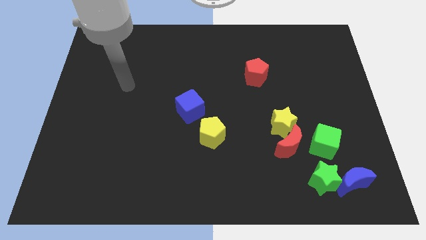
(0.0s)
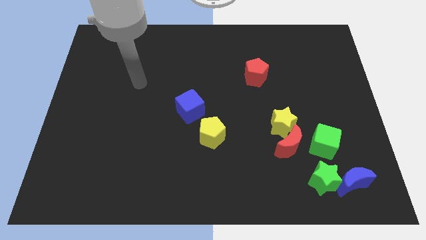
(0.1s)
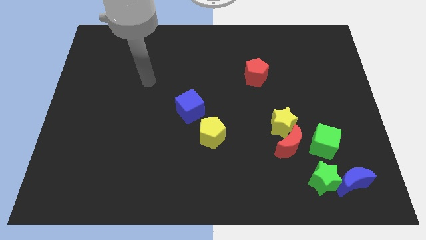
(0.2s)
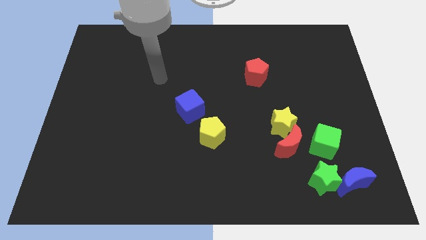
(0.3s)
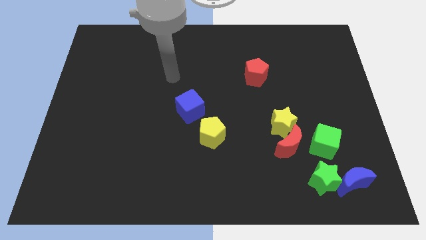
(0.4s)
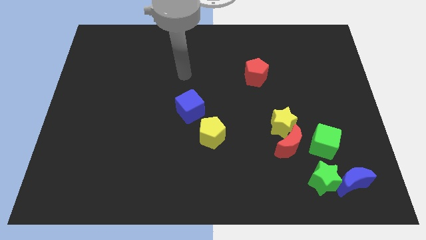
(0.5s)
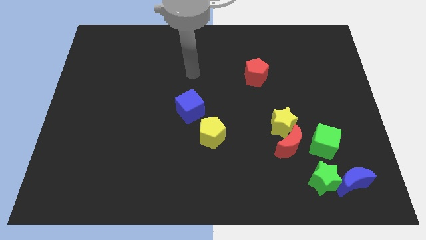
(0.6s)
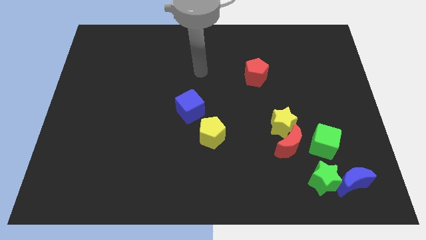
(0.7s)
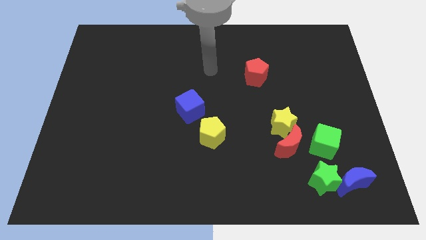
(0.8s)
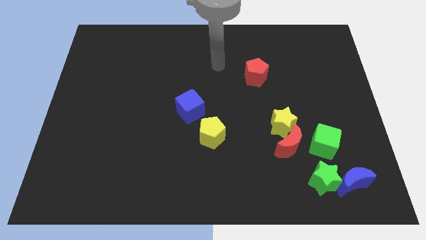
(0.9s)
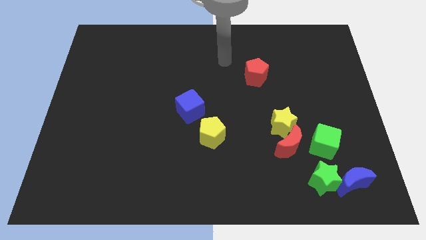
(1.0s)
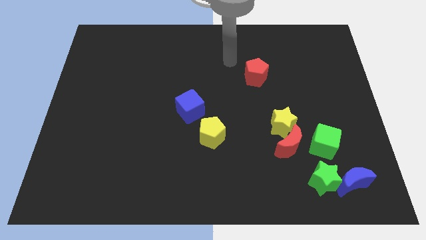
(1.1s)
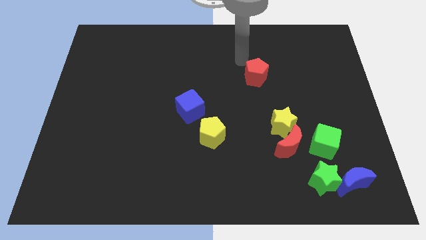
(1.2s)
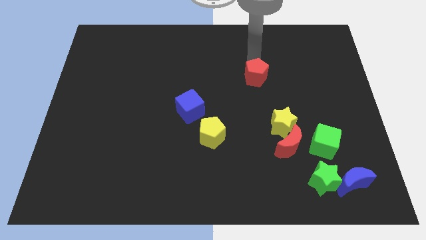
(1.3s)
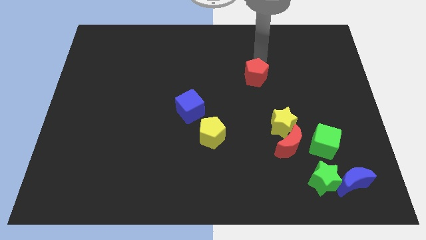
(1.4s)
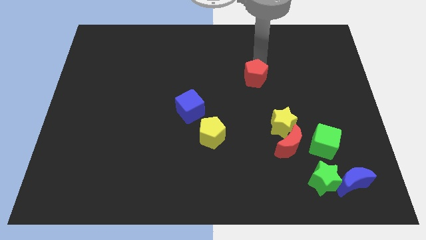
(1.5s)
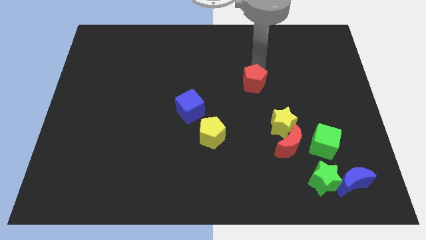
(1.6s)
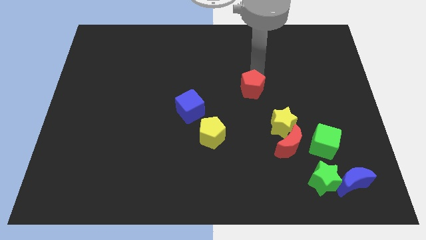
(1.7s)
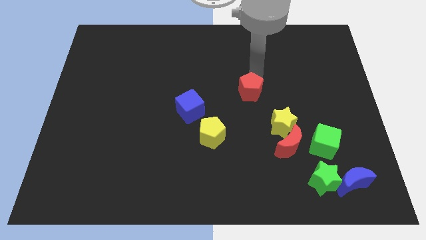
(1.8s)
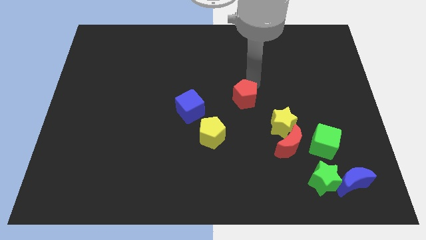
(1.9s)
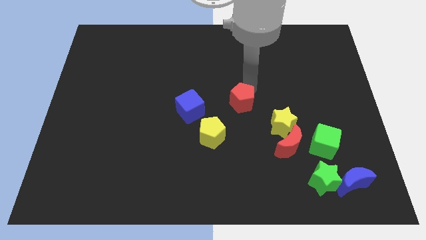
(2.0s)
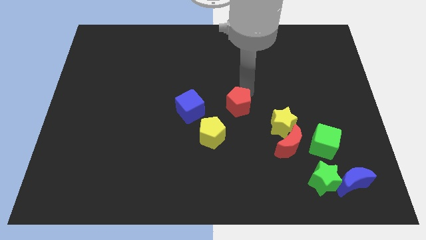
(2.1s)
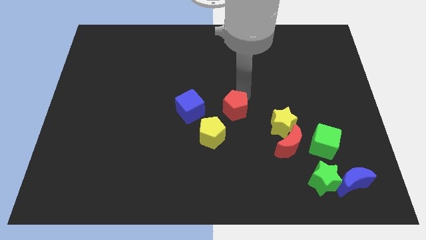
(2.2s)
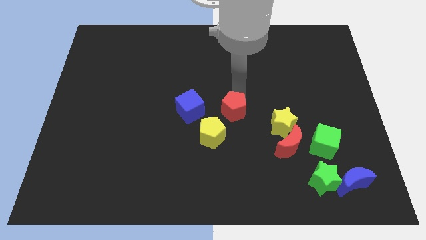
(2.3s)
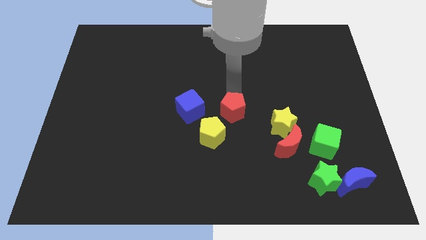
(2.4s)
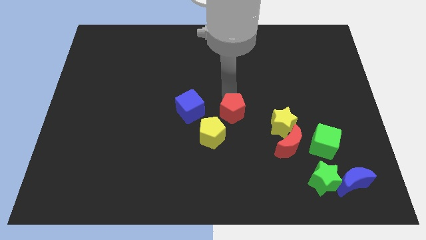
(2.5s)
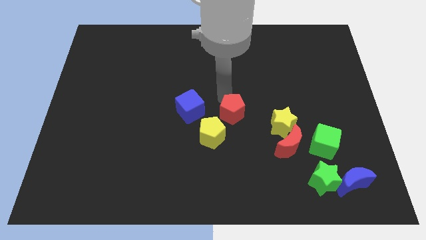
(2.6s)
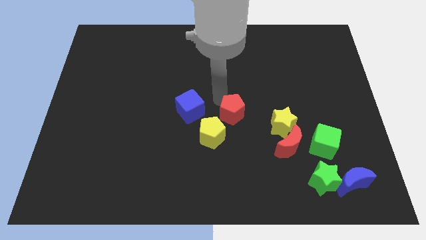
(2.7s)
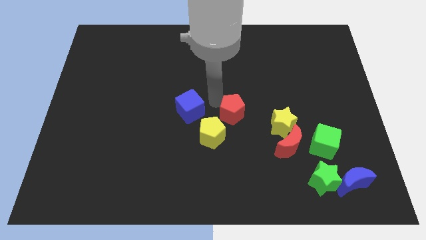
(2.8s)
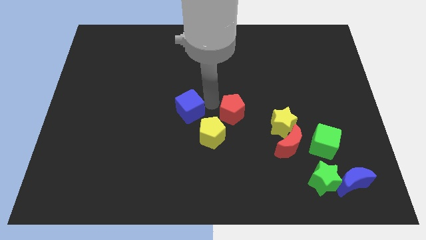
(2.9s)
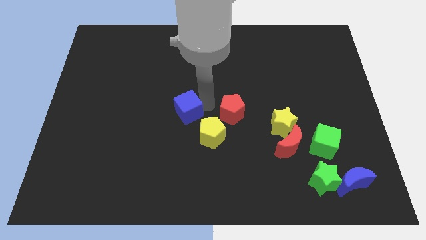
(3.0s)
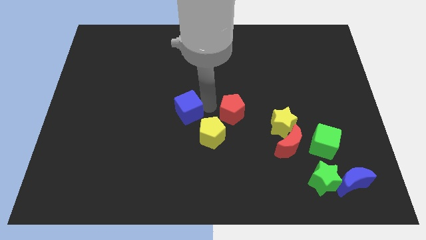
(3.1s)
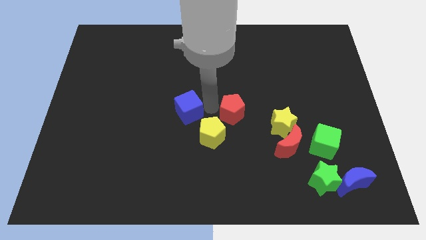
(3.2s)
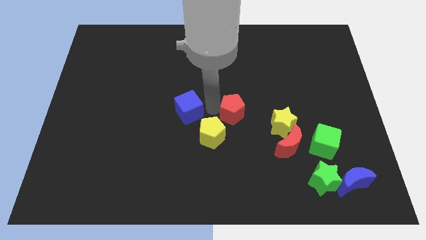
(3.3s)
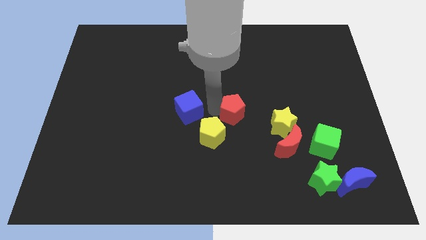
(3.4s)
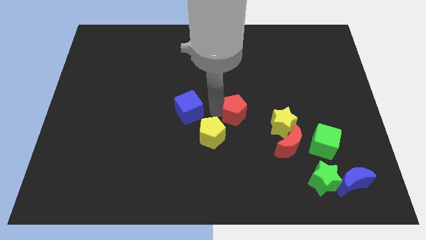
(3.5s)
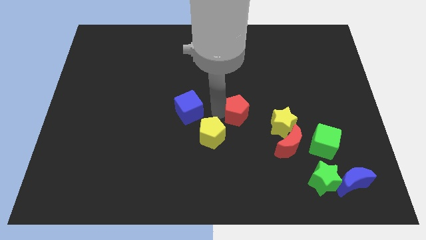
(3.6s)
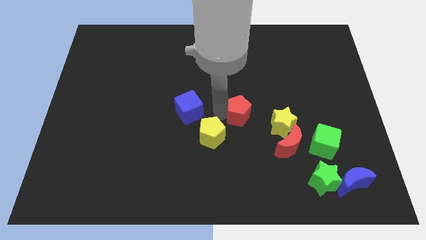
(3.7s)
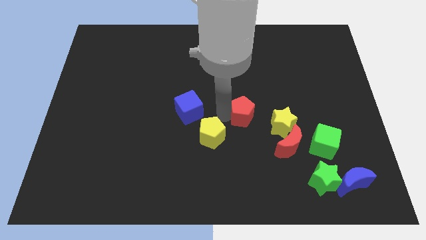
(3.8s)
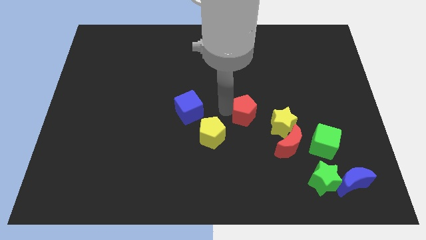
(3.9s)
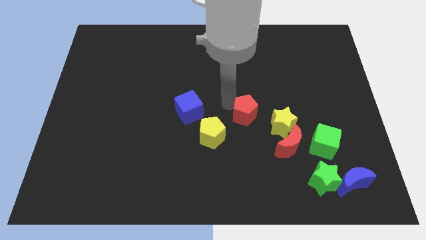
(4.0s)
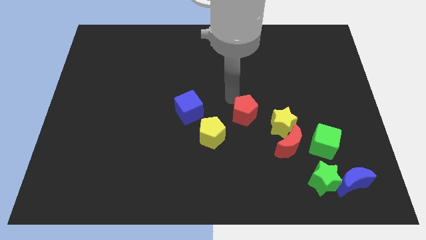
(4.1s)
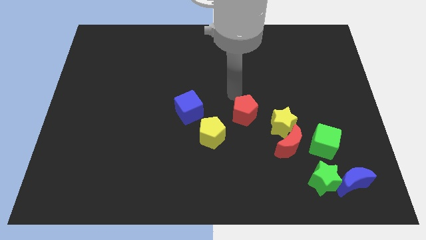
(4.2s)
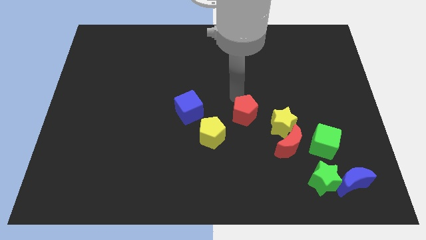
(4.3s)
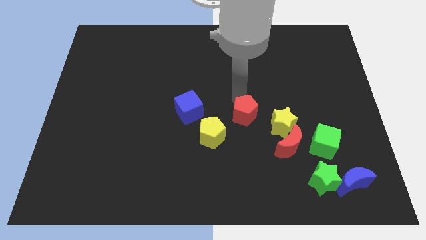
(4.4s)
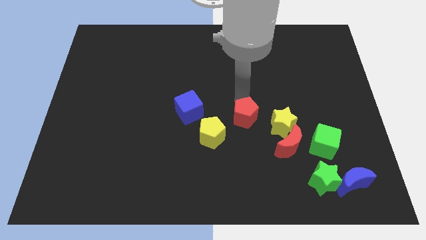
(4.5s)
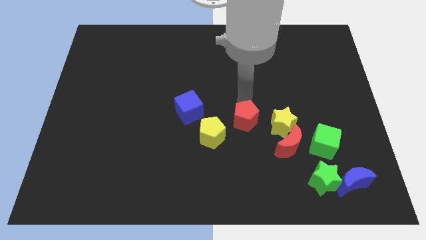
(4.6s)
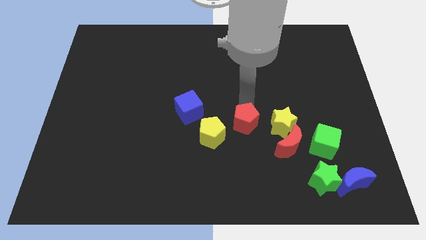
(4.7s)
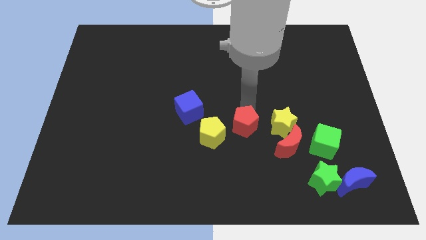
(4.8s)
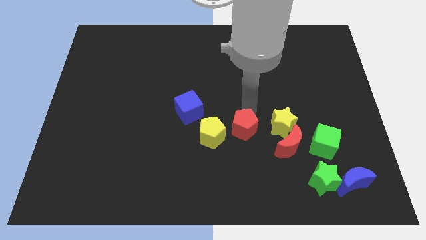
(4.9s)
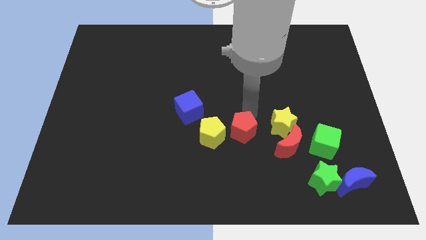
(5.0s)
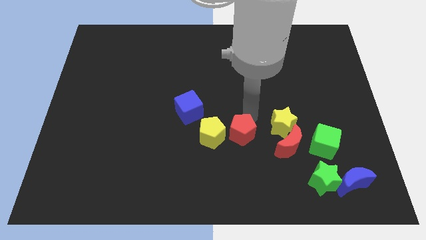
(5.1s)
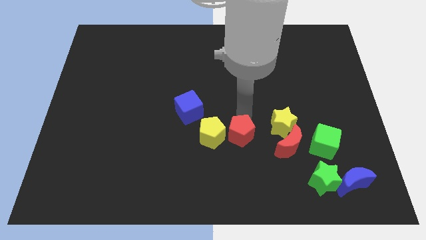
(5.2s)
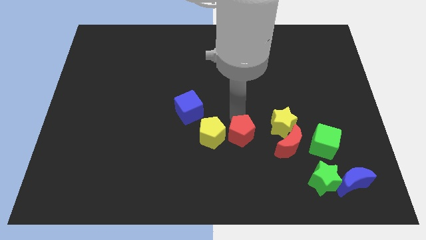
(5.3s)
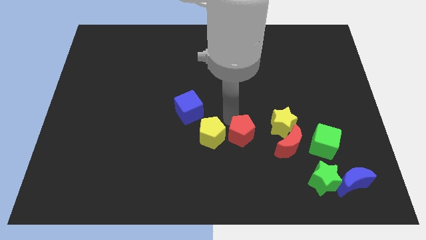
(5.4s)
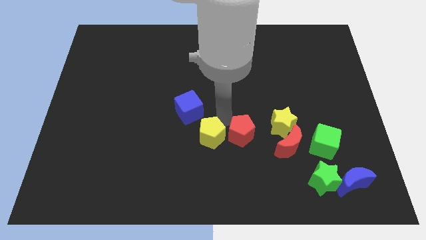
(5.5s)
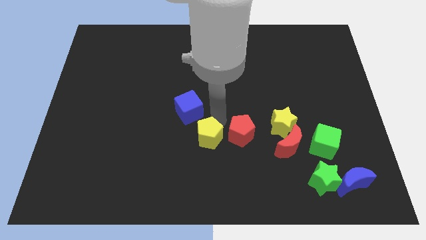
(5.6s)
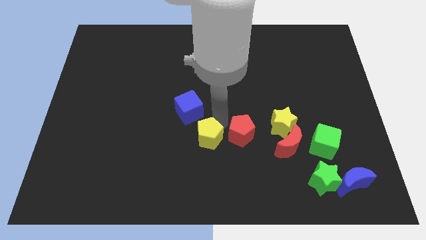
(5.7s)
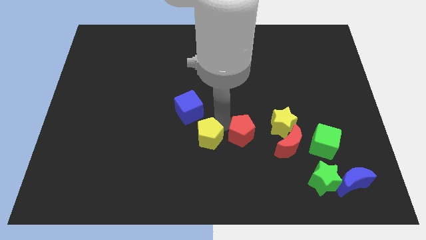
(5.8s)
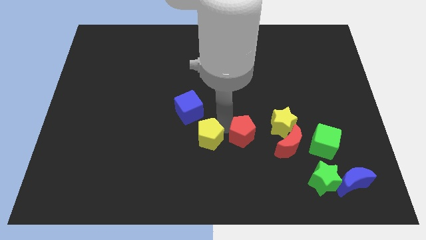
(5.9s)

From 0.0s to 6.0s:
slide the red pentagon diagonally down and to the left of the yellow star

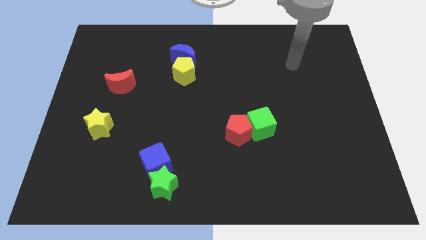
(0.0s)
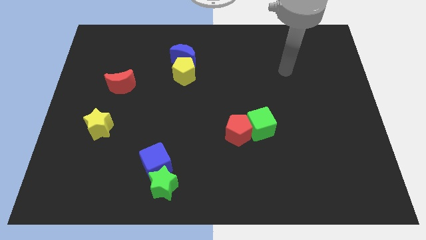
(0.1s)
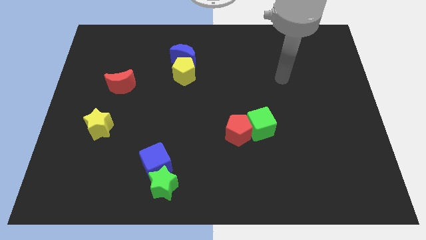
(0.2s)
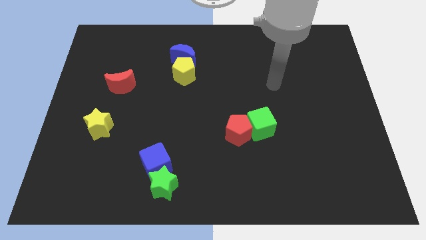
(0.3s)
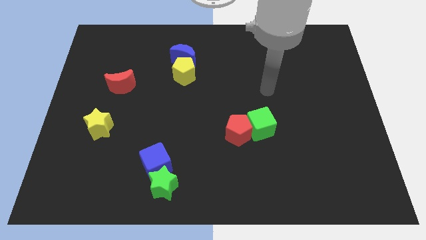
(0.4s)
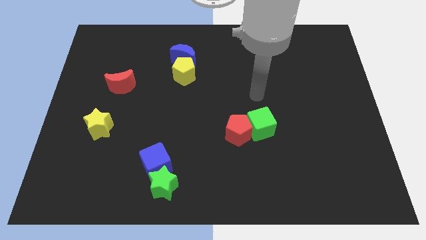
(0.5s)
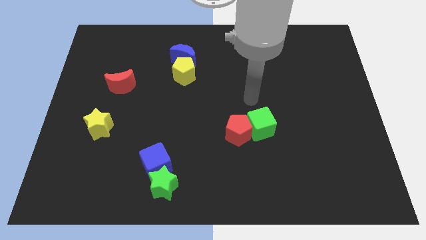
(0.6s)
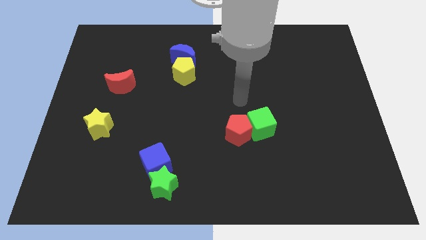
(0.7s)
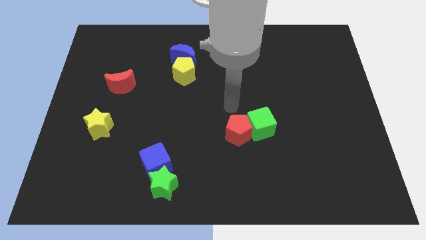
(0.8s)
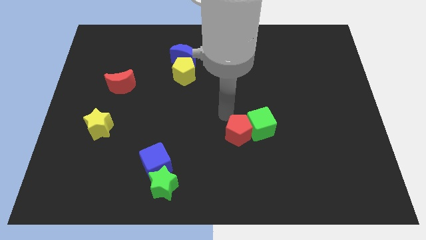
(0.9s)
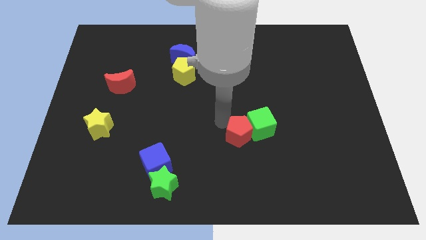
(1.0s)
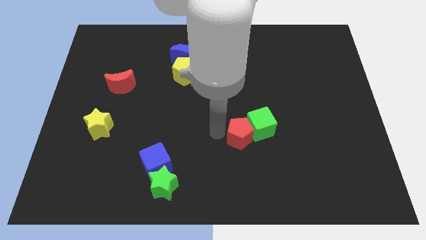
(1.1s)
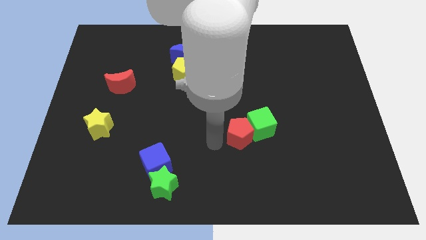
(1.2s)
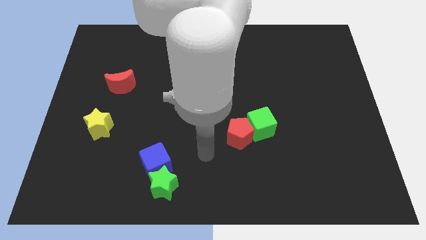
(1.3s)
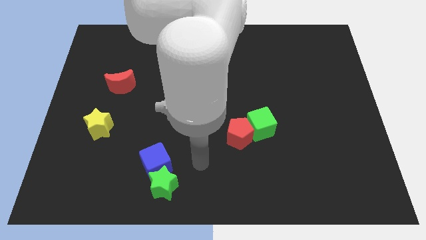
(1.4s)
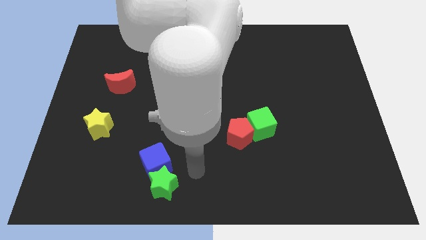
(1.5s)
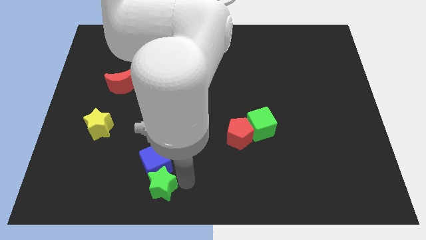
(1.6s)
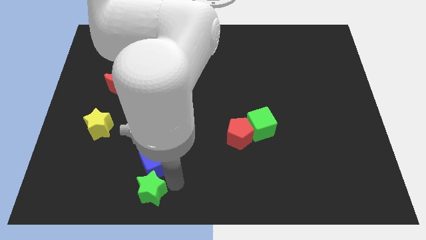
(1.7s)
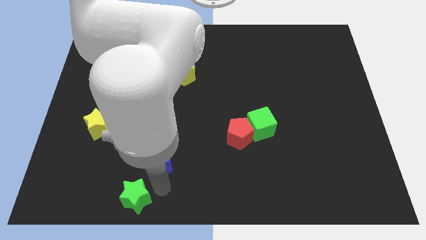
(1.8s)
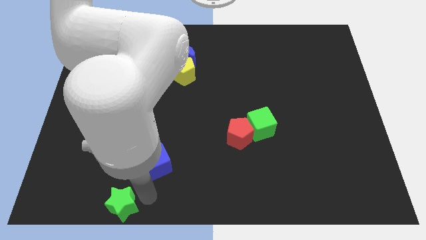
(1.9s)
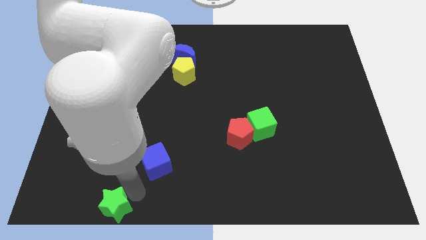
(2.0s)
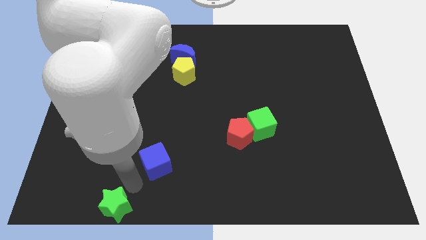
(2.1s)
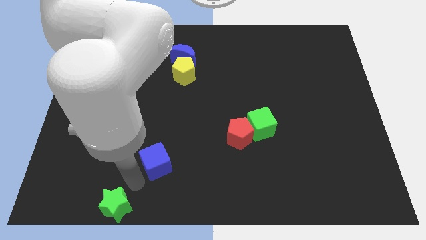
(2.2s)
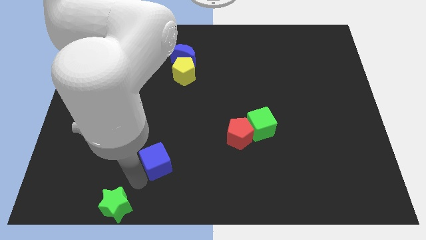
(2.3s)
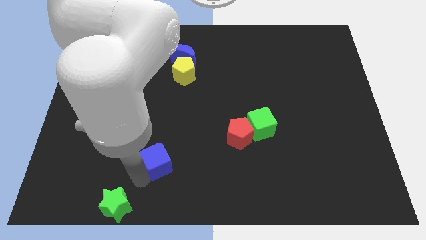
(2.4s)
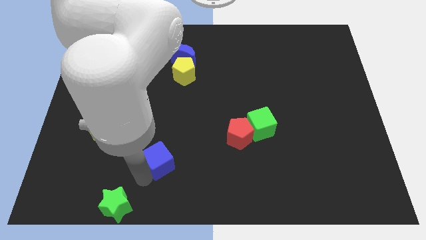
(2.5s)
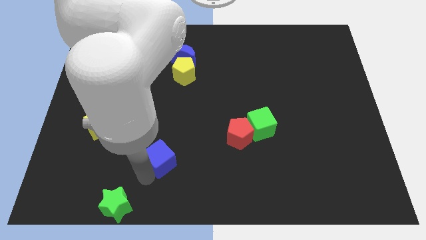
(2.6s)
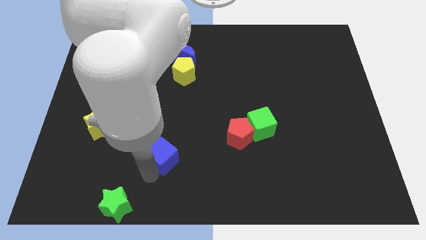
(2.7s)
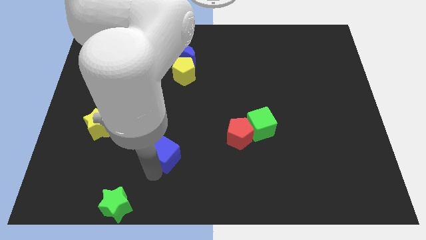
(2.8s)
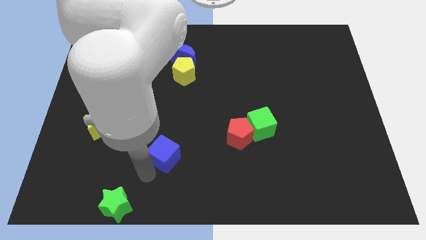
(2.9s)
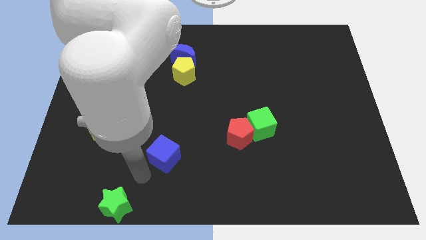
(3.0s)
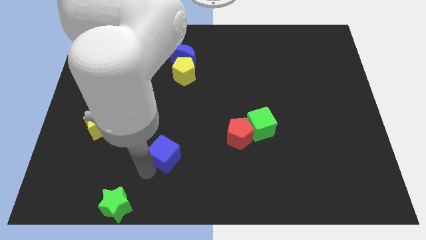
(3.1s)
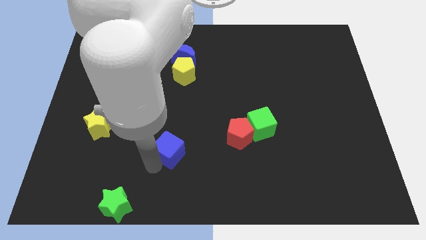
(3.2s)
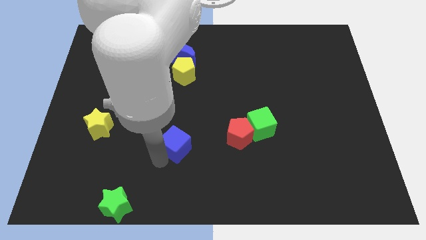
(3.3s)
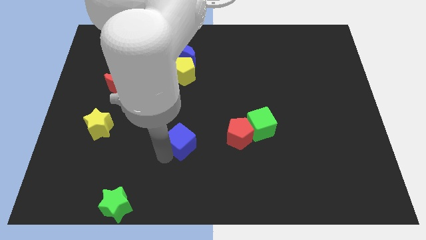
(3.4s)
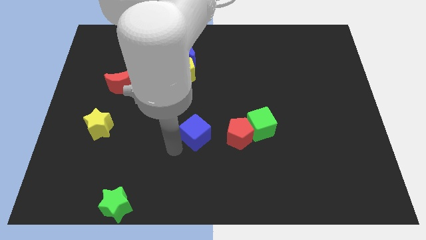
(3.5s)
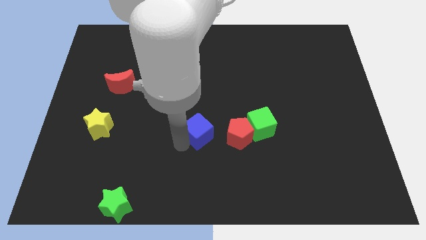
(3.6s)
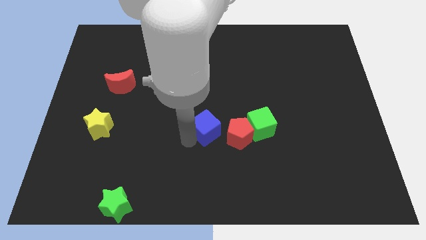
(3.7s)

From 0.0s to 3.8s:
slide the blue cube to the top left of the red pentagon
